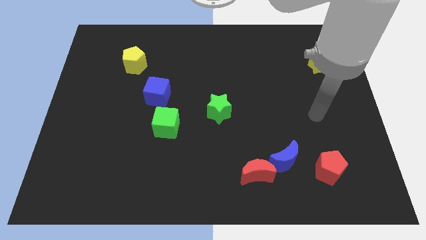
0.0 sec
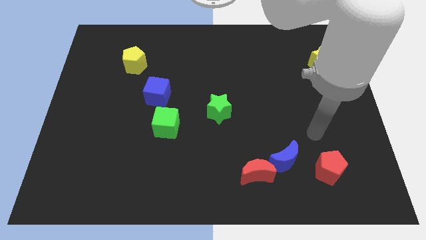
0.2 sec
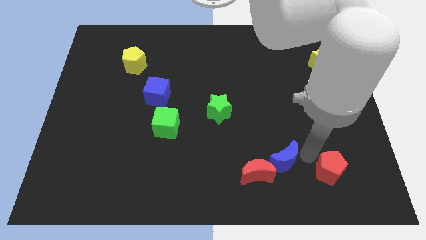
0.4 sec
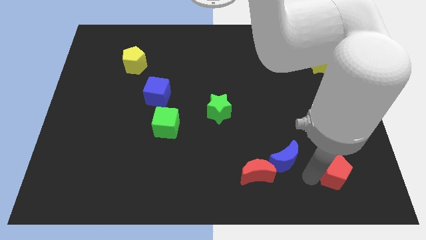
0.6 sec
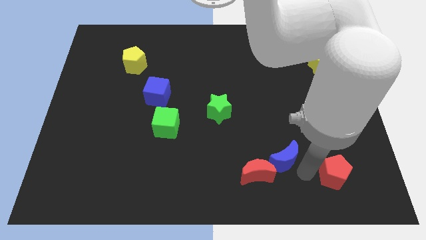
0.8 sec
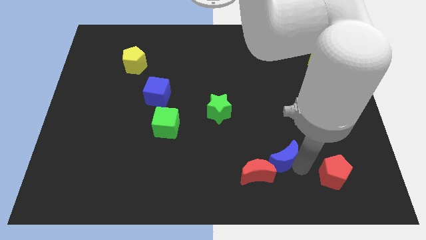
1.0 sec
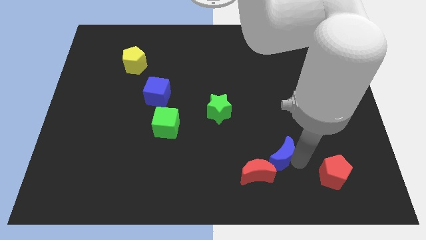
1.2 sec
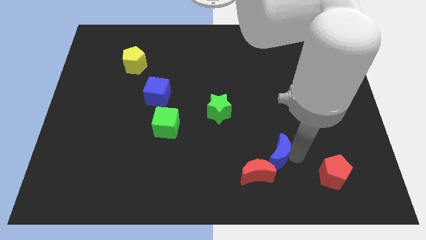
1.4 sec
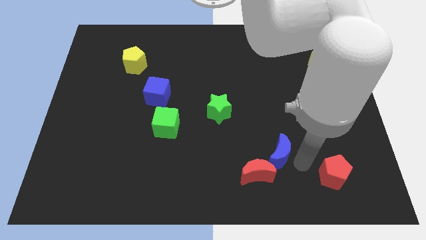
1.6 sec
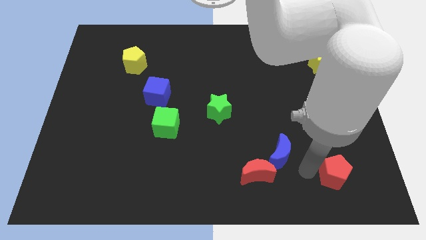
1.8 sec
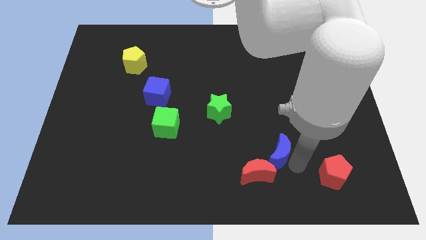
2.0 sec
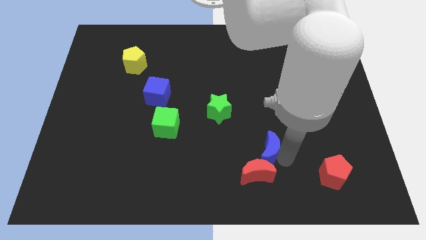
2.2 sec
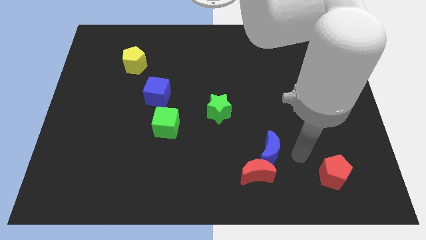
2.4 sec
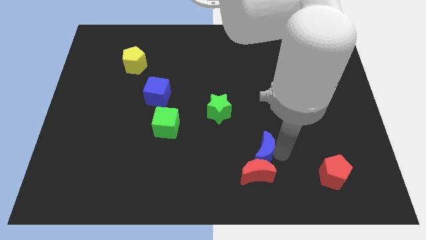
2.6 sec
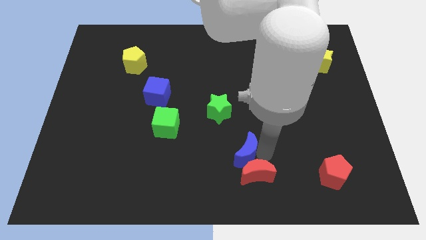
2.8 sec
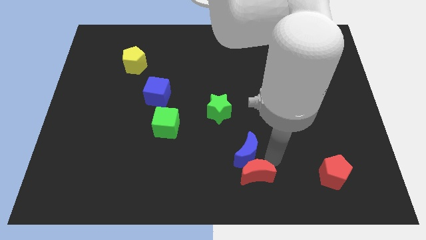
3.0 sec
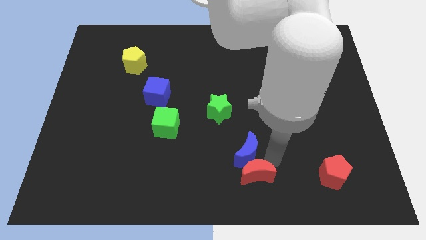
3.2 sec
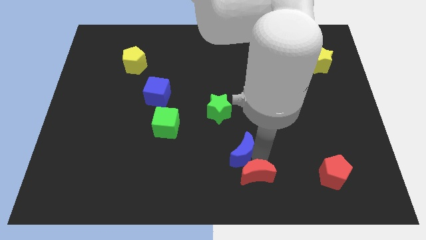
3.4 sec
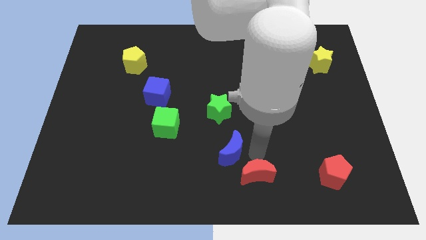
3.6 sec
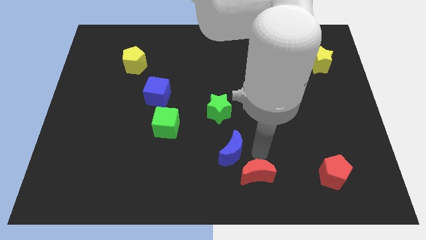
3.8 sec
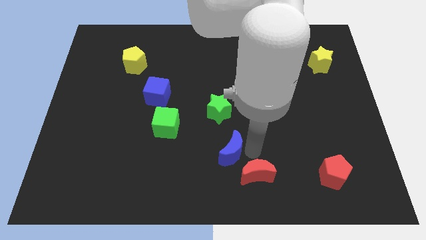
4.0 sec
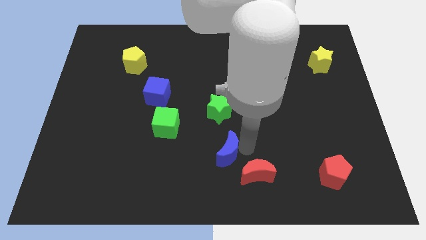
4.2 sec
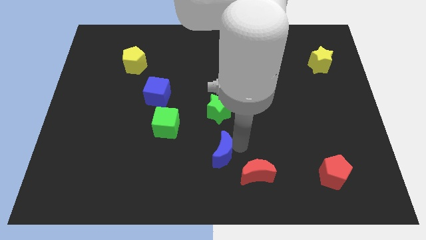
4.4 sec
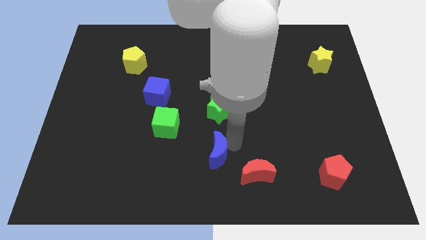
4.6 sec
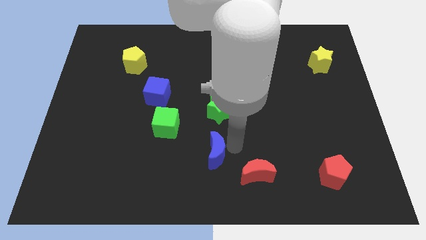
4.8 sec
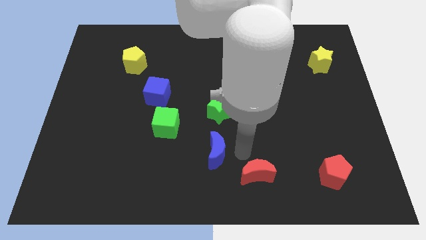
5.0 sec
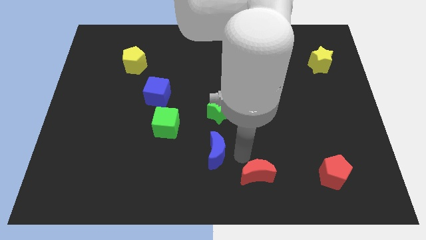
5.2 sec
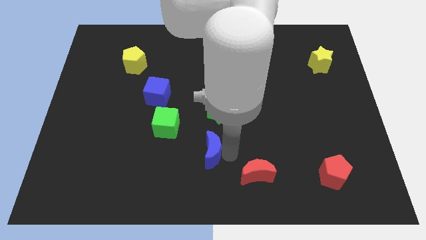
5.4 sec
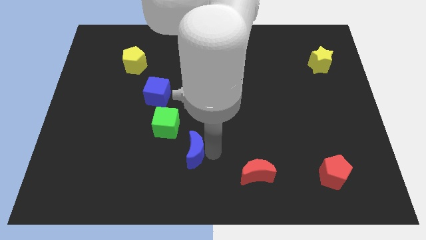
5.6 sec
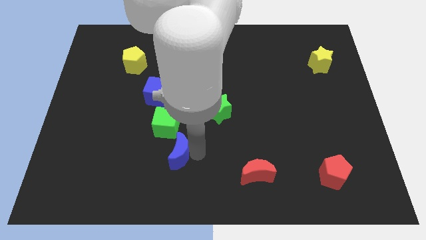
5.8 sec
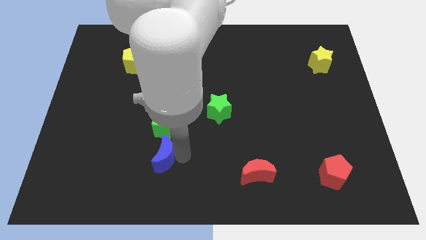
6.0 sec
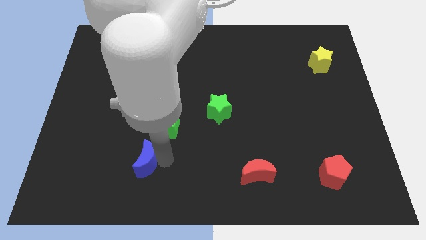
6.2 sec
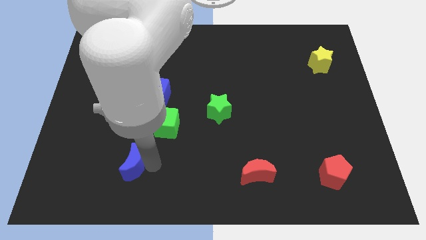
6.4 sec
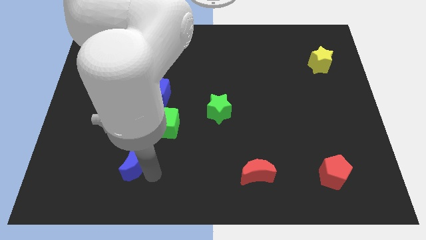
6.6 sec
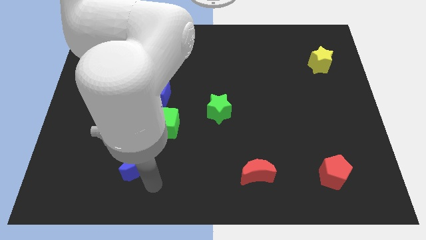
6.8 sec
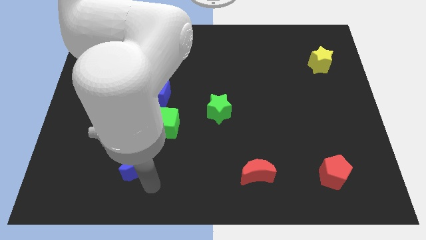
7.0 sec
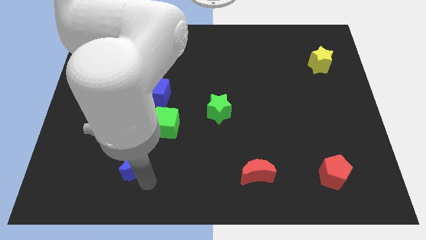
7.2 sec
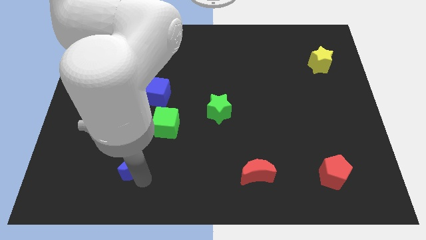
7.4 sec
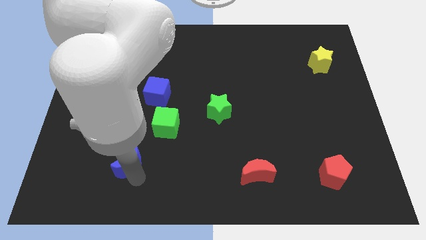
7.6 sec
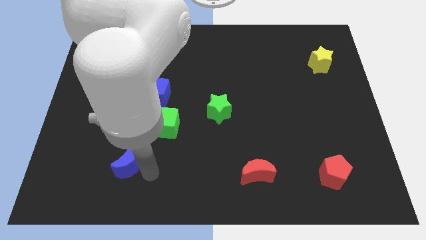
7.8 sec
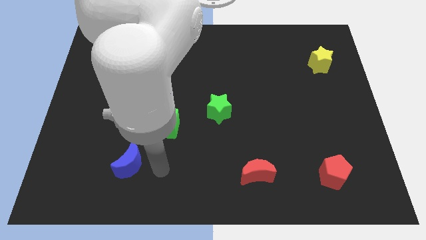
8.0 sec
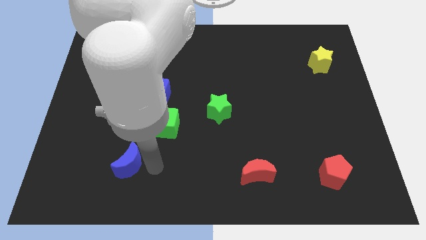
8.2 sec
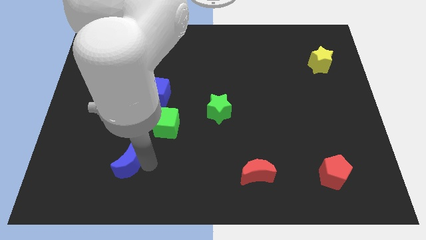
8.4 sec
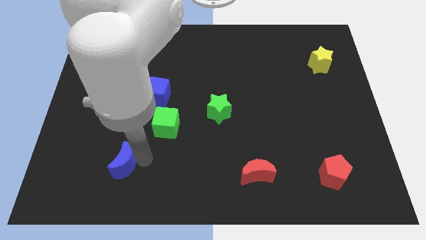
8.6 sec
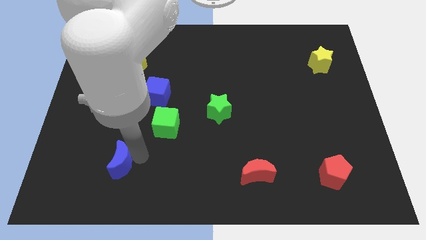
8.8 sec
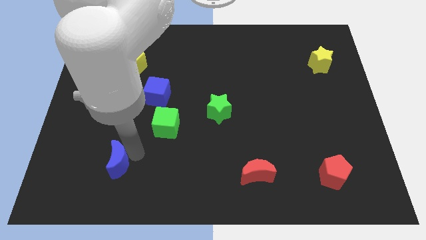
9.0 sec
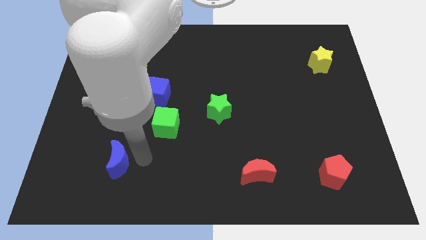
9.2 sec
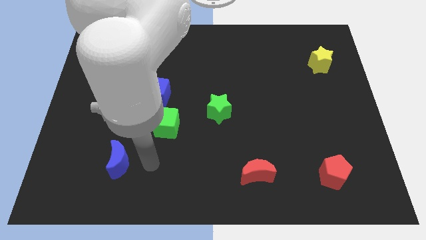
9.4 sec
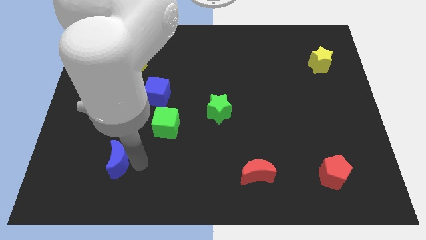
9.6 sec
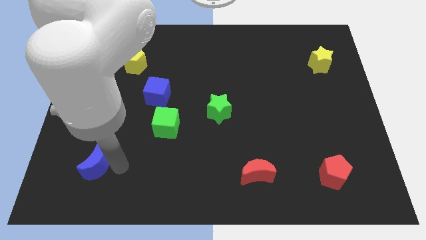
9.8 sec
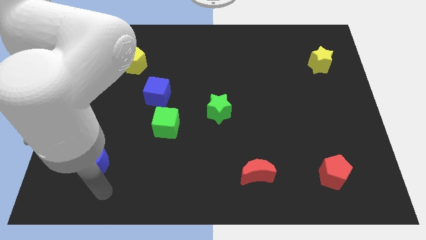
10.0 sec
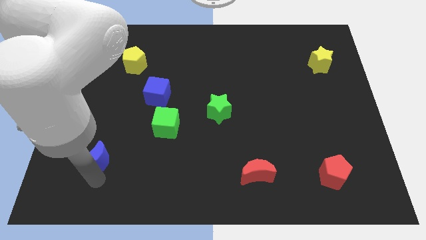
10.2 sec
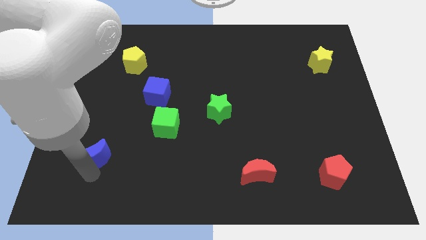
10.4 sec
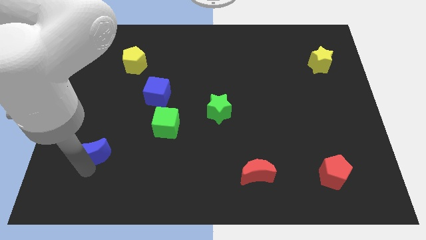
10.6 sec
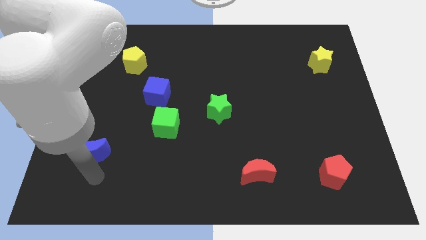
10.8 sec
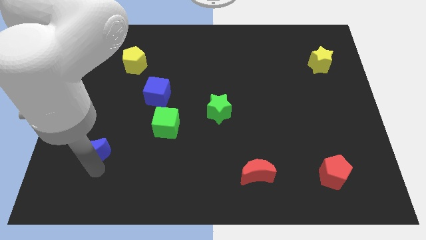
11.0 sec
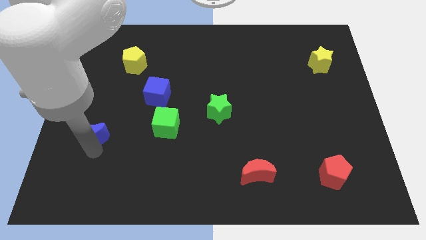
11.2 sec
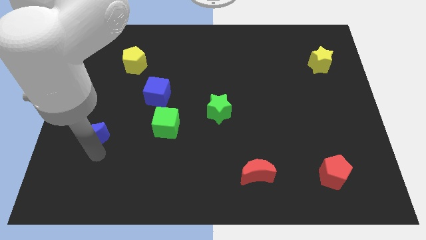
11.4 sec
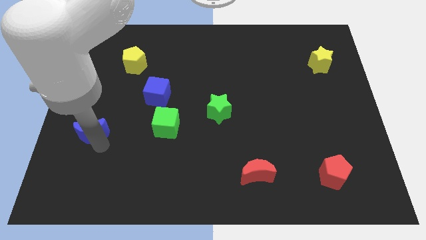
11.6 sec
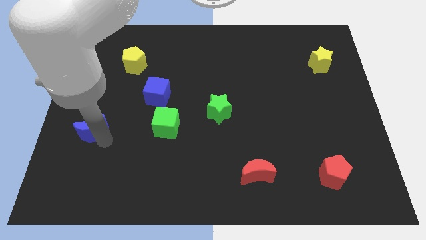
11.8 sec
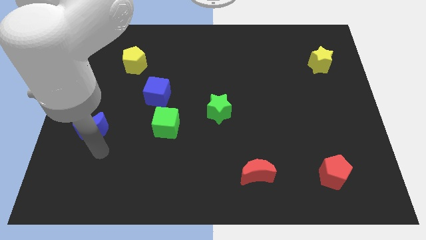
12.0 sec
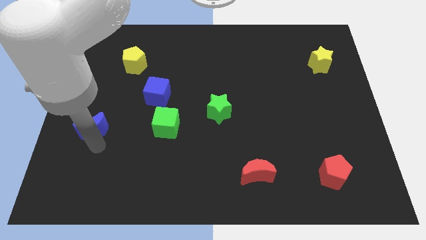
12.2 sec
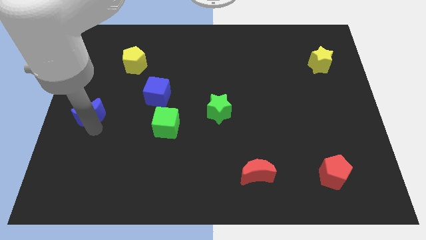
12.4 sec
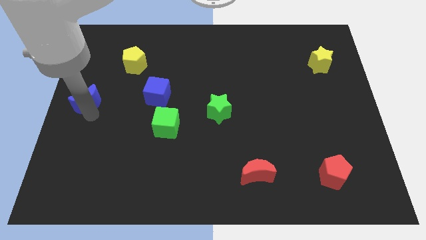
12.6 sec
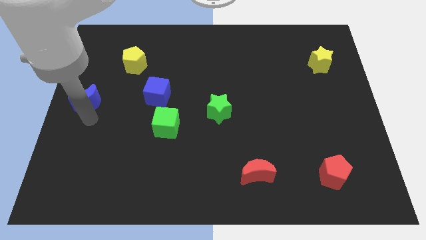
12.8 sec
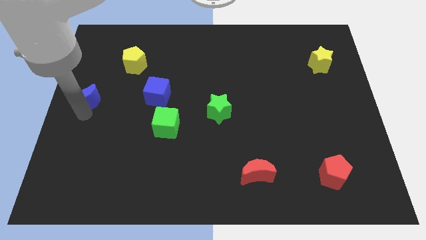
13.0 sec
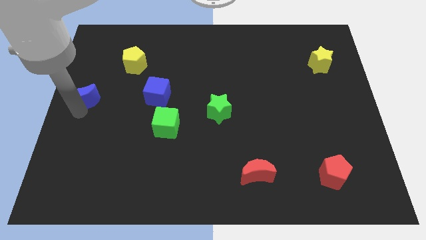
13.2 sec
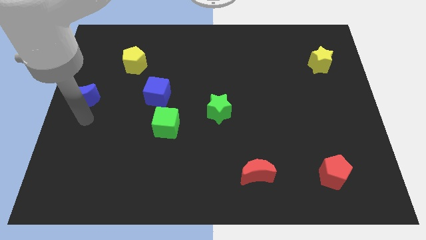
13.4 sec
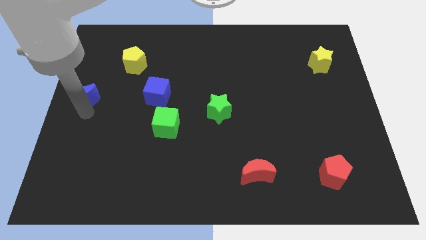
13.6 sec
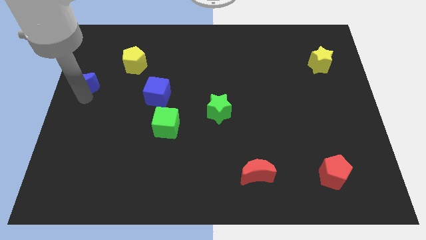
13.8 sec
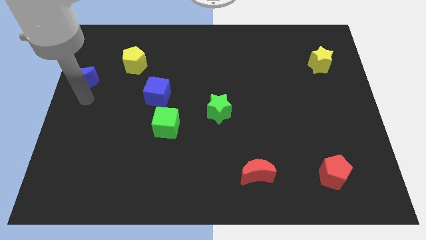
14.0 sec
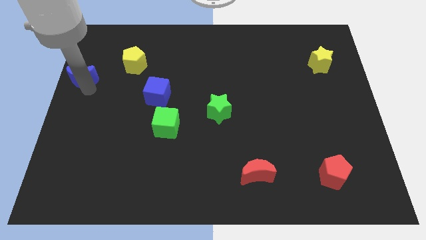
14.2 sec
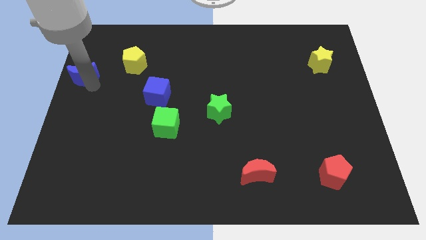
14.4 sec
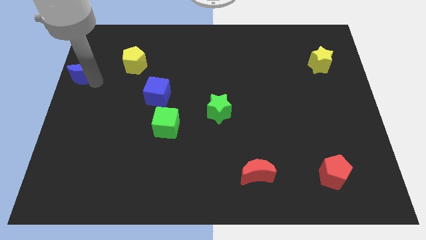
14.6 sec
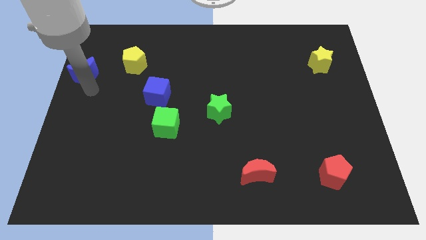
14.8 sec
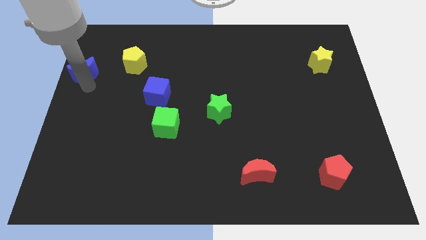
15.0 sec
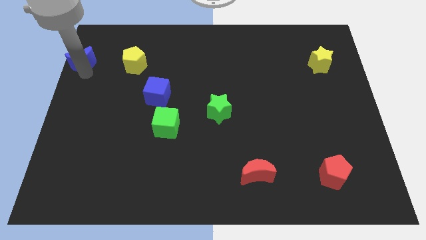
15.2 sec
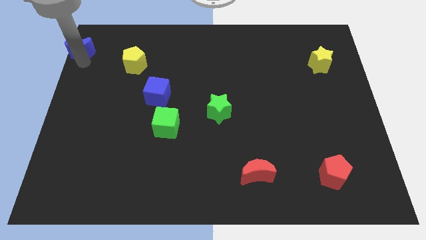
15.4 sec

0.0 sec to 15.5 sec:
slide the blue moon to the top left
